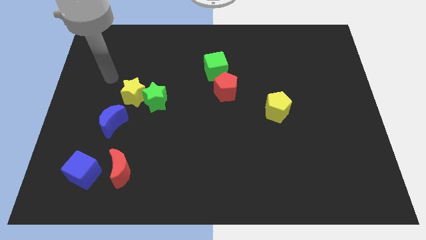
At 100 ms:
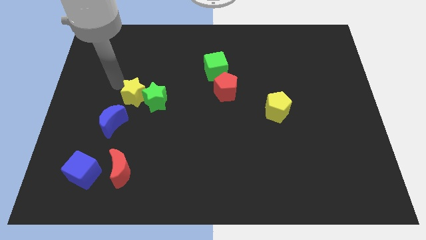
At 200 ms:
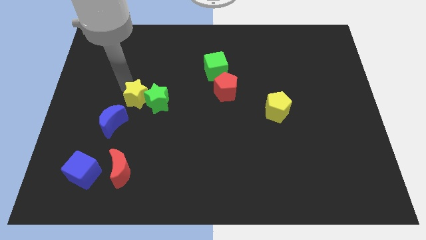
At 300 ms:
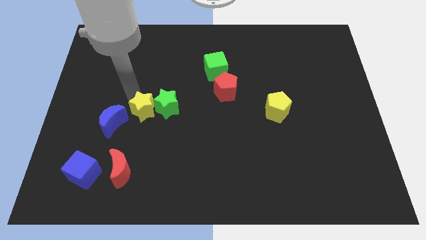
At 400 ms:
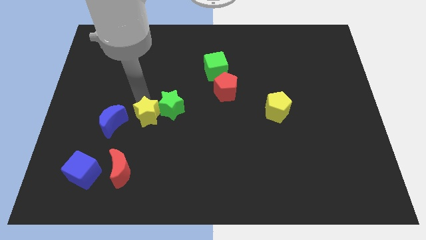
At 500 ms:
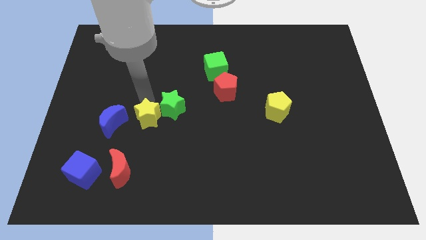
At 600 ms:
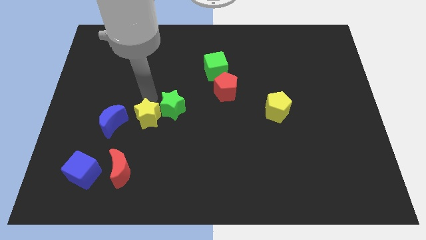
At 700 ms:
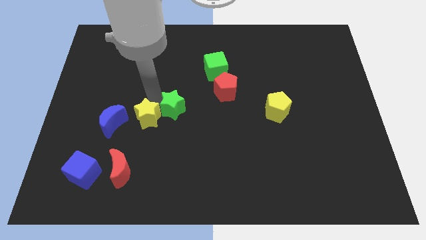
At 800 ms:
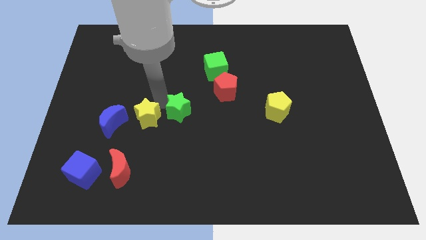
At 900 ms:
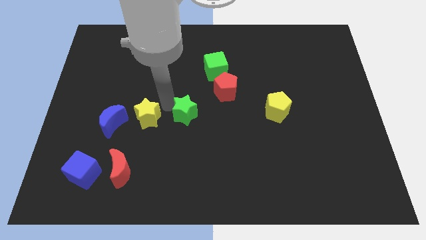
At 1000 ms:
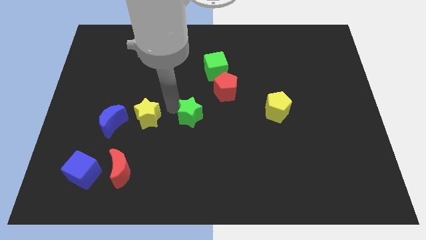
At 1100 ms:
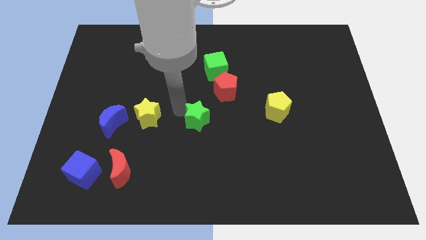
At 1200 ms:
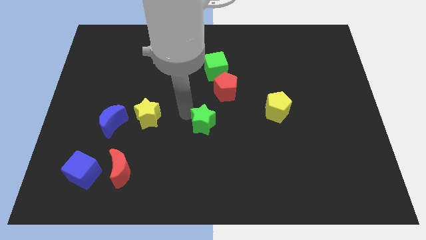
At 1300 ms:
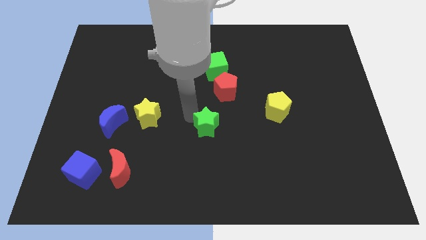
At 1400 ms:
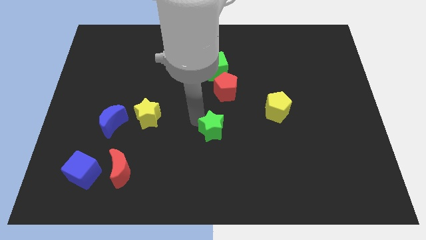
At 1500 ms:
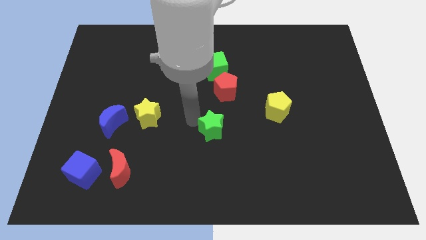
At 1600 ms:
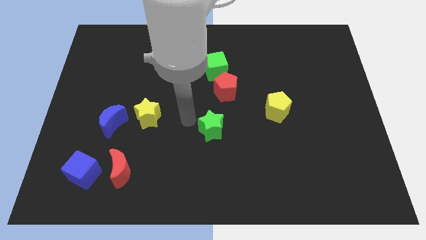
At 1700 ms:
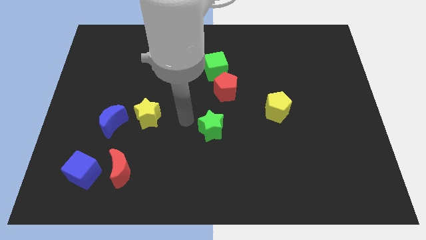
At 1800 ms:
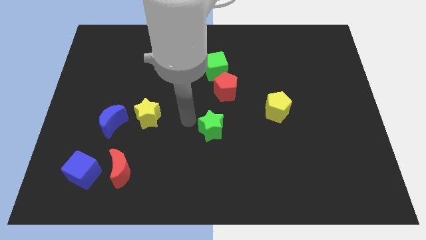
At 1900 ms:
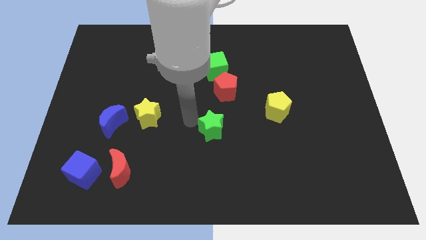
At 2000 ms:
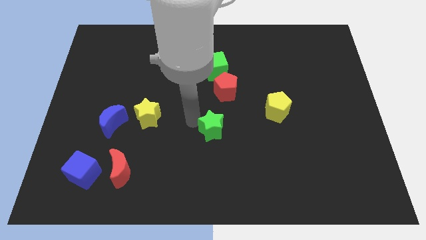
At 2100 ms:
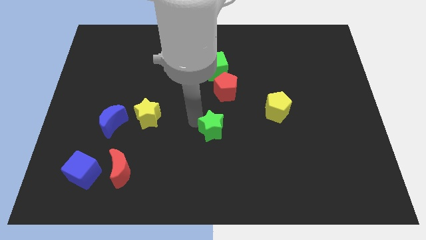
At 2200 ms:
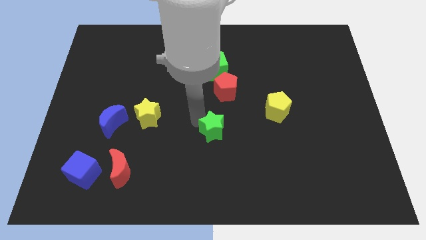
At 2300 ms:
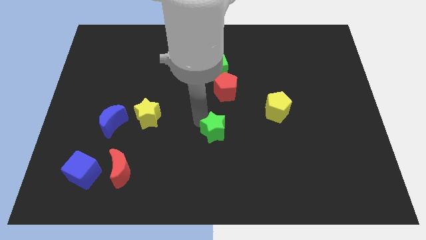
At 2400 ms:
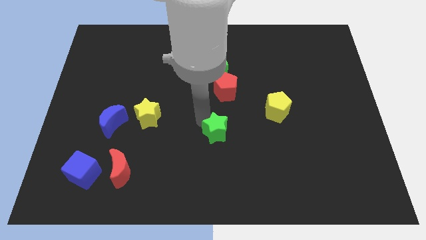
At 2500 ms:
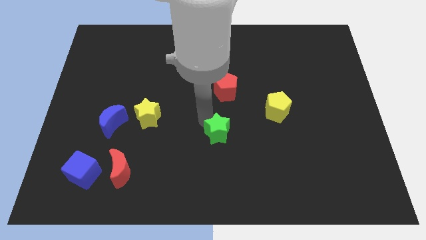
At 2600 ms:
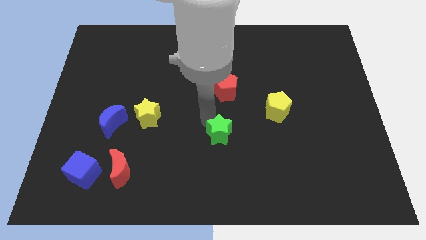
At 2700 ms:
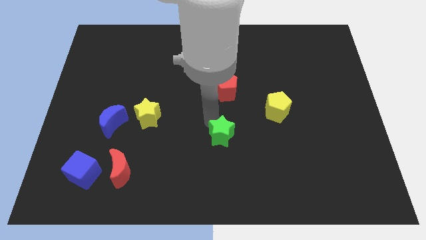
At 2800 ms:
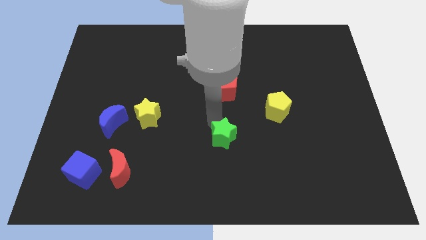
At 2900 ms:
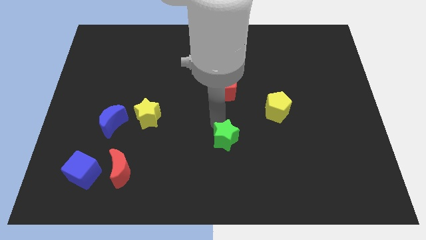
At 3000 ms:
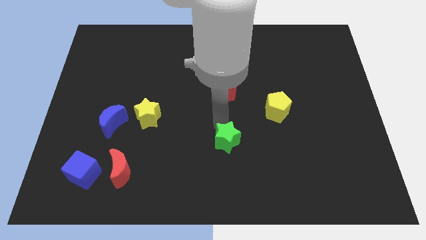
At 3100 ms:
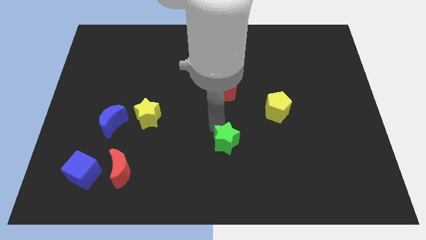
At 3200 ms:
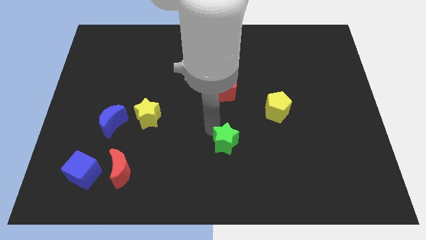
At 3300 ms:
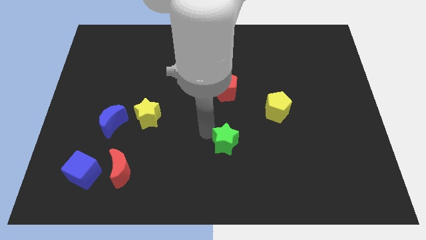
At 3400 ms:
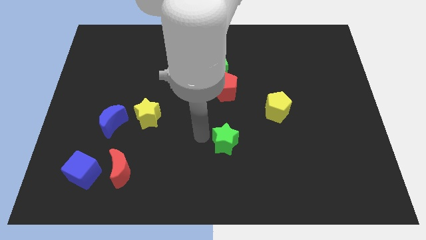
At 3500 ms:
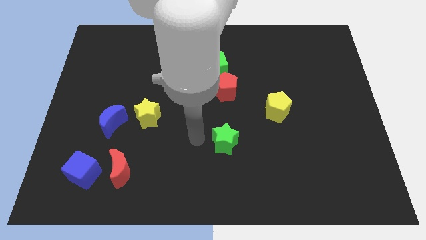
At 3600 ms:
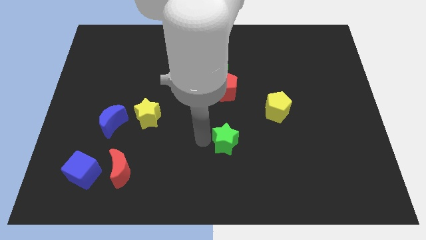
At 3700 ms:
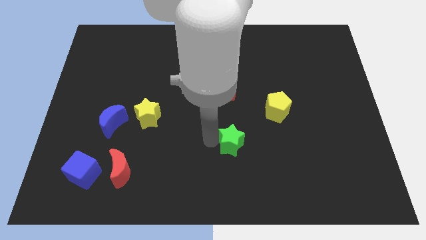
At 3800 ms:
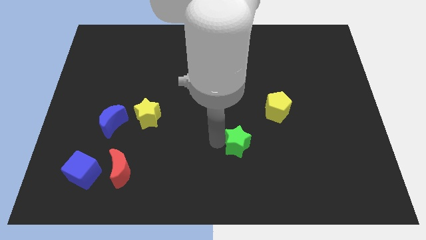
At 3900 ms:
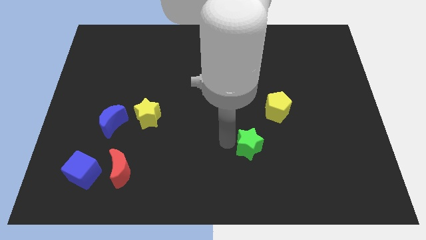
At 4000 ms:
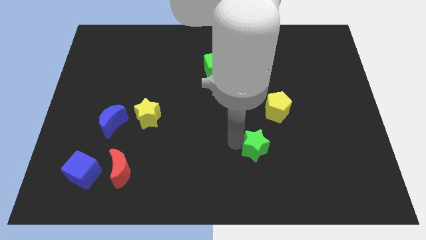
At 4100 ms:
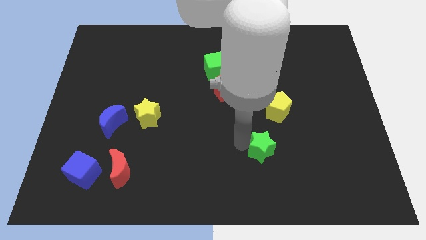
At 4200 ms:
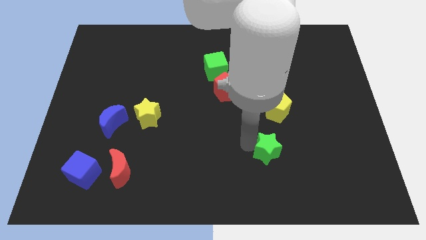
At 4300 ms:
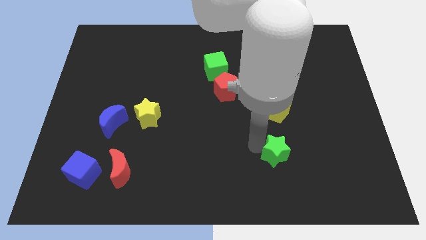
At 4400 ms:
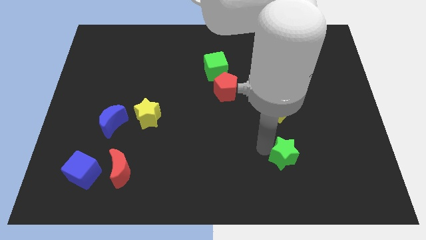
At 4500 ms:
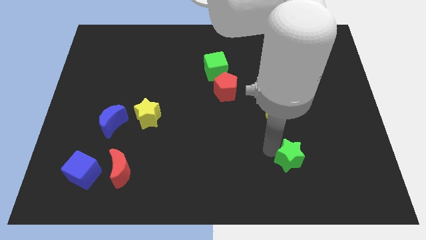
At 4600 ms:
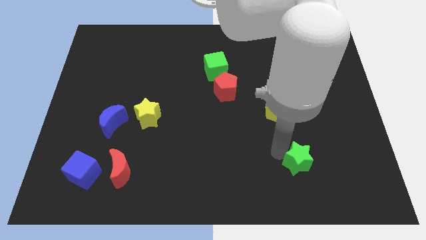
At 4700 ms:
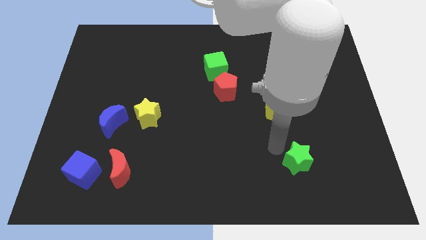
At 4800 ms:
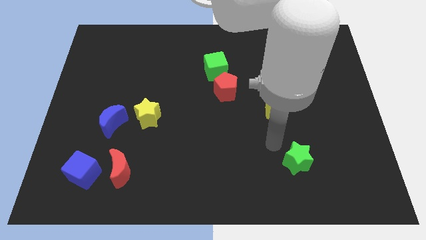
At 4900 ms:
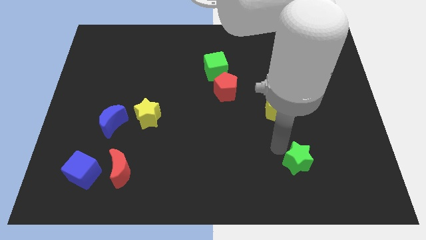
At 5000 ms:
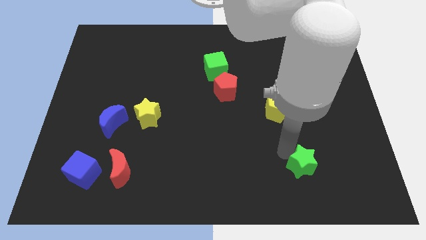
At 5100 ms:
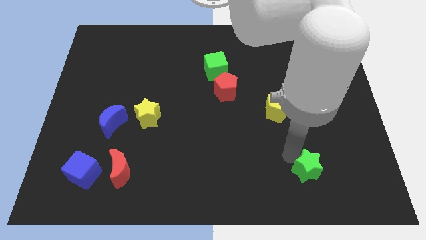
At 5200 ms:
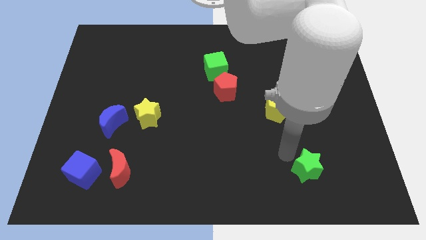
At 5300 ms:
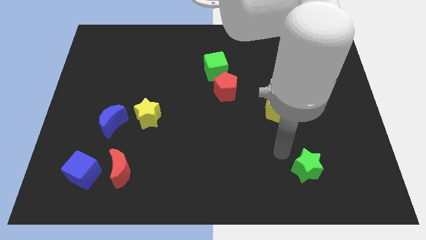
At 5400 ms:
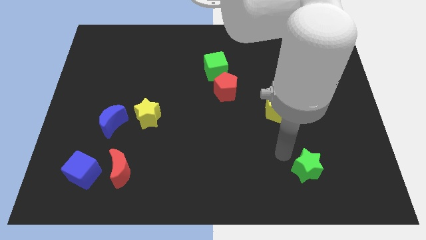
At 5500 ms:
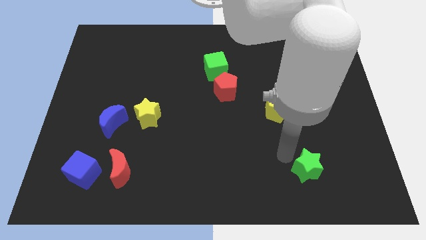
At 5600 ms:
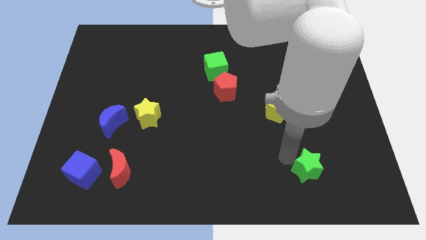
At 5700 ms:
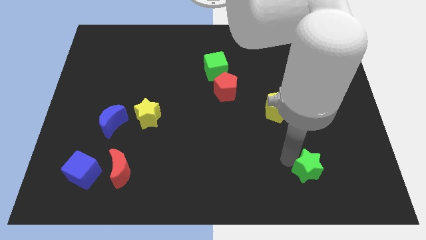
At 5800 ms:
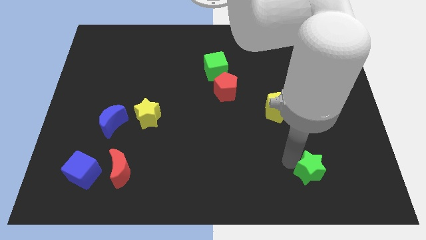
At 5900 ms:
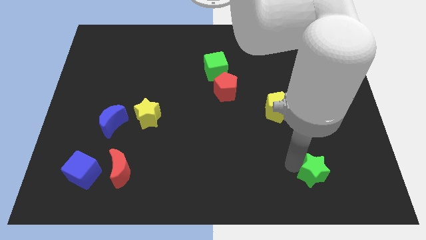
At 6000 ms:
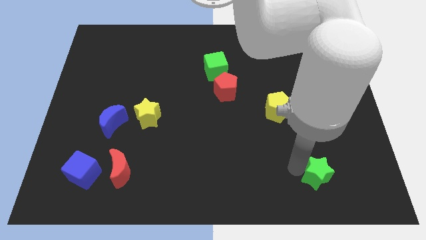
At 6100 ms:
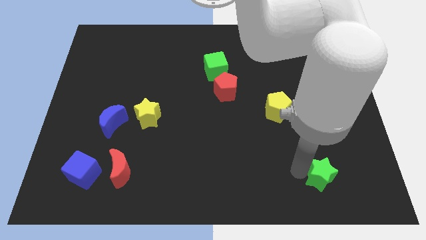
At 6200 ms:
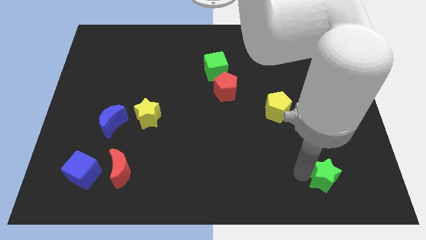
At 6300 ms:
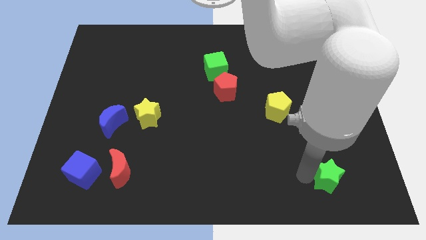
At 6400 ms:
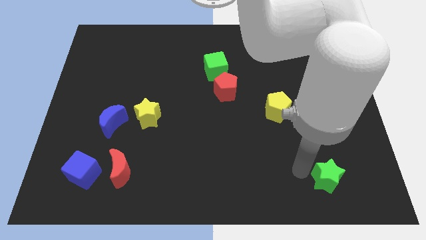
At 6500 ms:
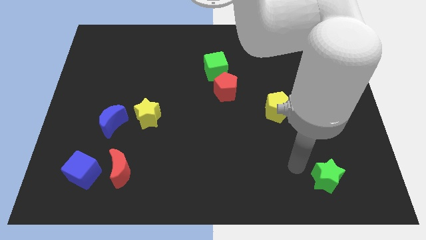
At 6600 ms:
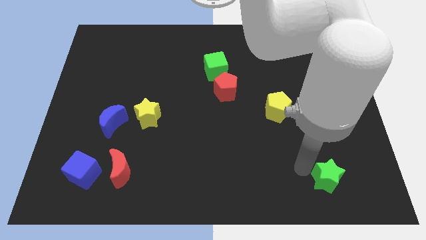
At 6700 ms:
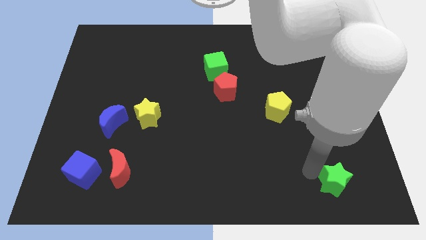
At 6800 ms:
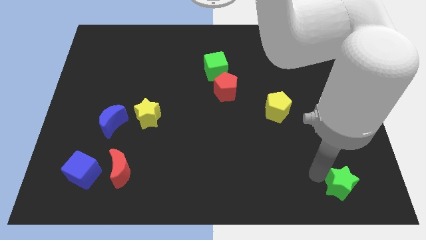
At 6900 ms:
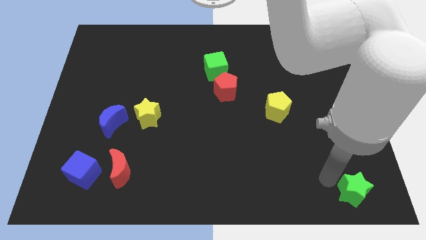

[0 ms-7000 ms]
put the green star to the bottom right corner

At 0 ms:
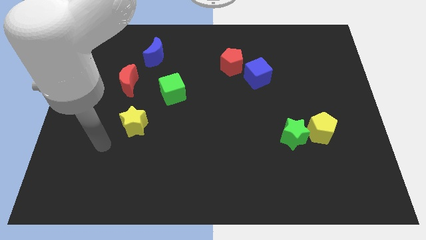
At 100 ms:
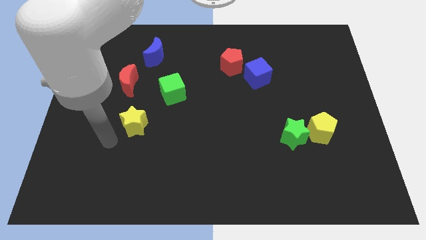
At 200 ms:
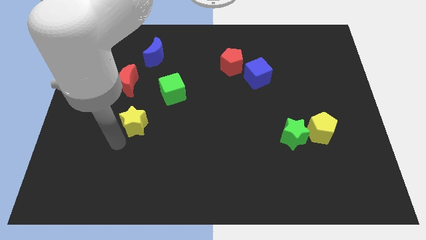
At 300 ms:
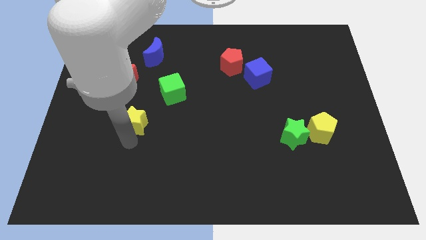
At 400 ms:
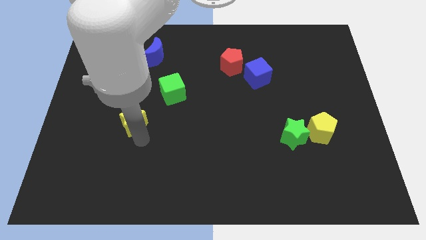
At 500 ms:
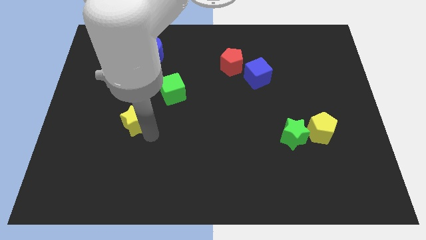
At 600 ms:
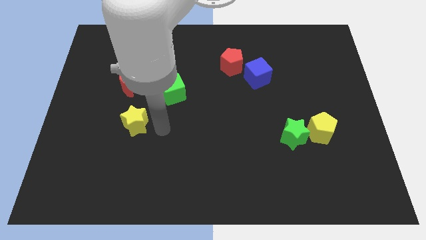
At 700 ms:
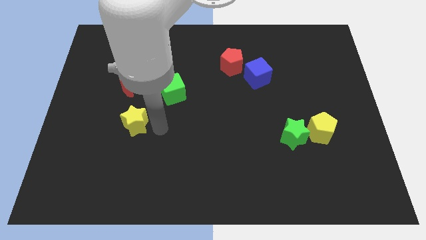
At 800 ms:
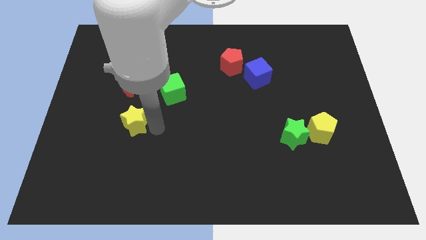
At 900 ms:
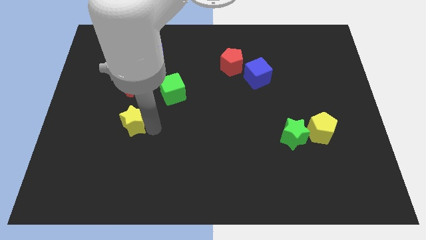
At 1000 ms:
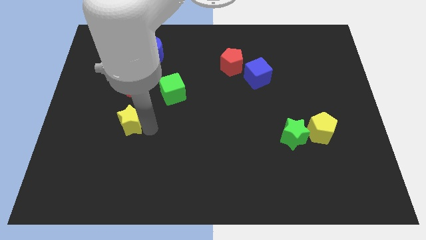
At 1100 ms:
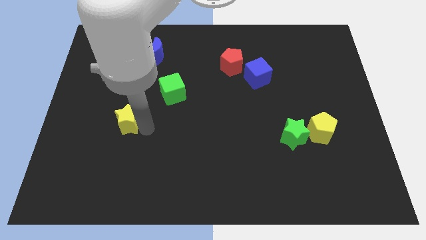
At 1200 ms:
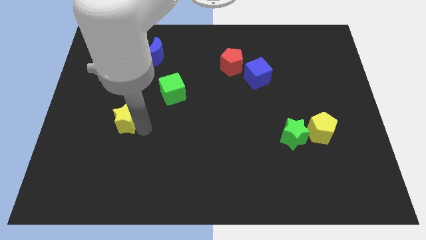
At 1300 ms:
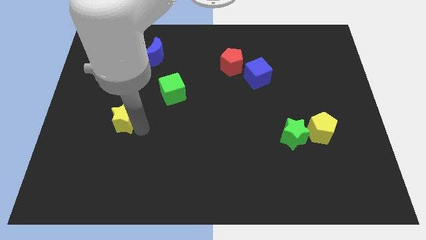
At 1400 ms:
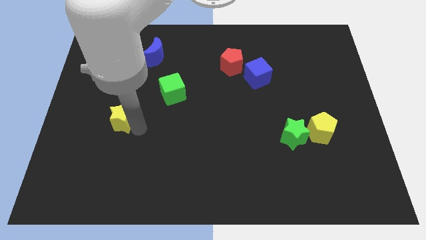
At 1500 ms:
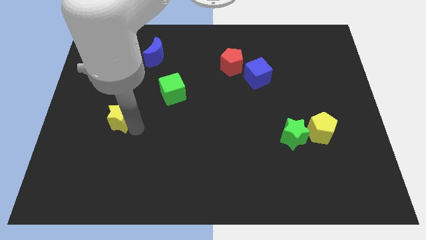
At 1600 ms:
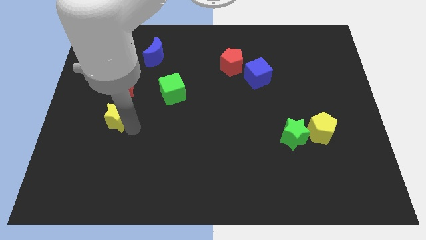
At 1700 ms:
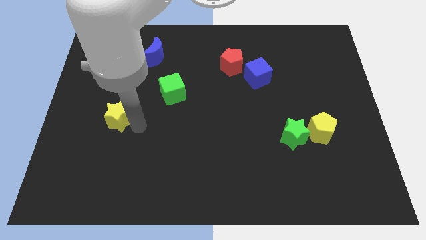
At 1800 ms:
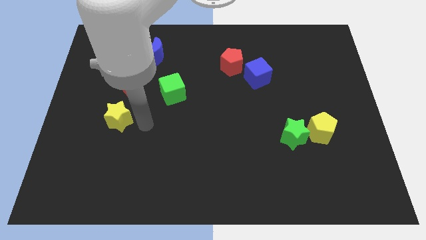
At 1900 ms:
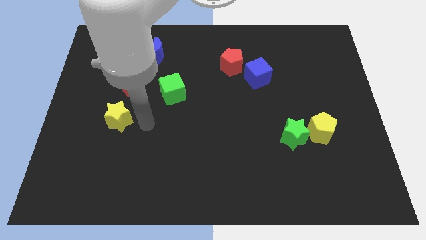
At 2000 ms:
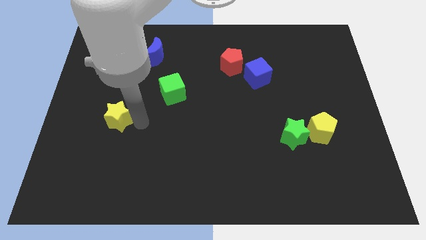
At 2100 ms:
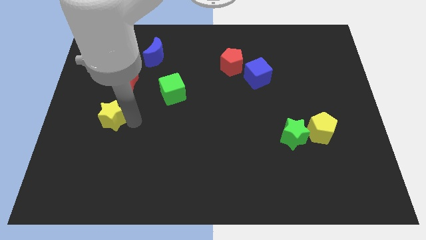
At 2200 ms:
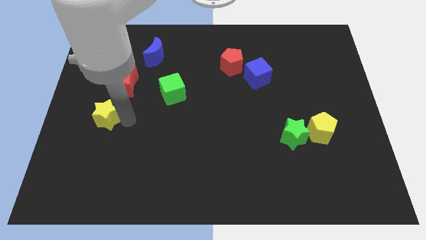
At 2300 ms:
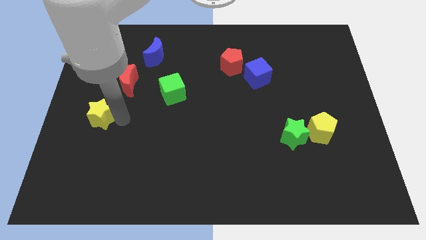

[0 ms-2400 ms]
slide the yellow star to the center left
